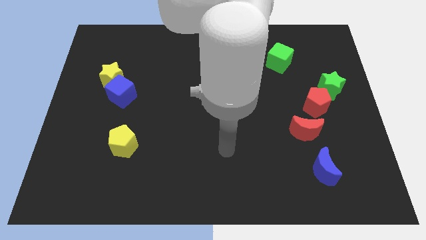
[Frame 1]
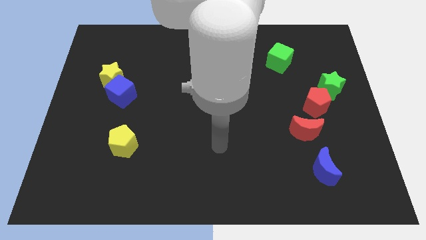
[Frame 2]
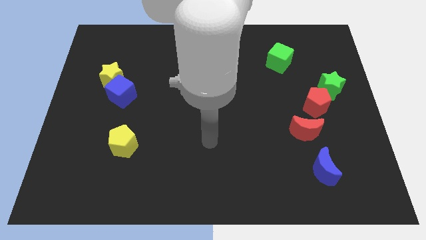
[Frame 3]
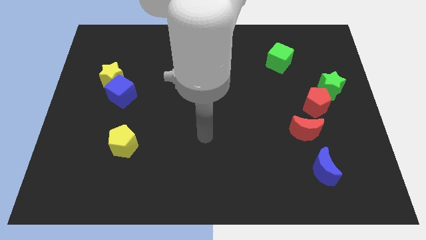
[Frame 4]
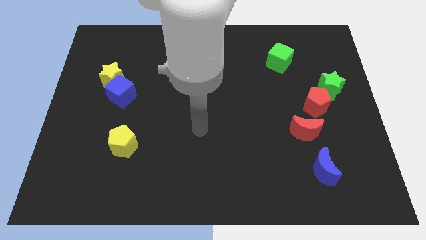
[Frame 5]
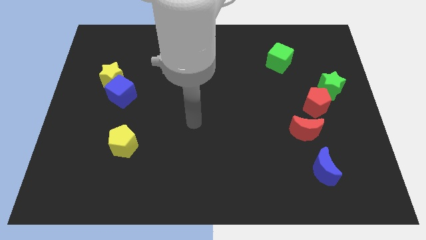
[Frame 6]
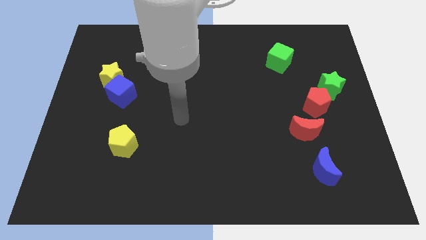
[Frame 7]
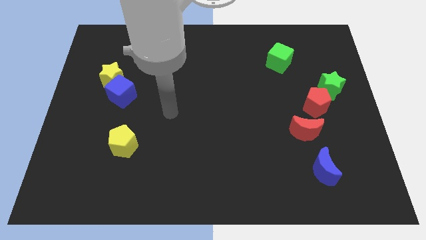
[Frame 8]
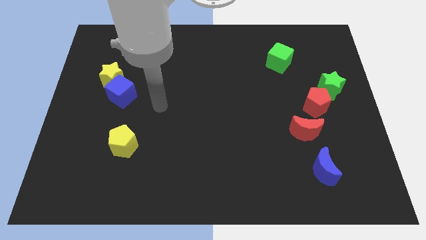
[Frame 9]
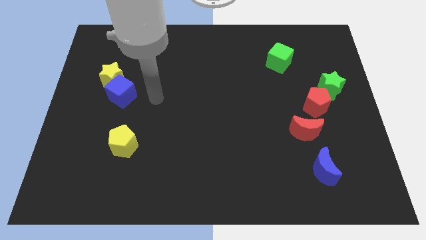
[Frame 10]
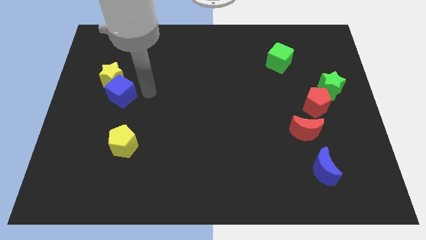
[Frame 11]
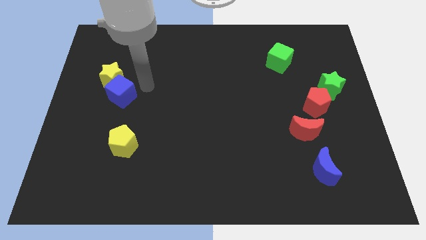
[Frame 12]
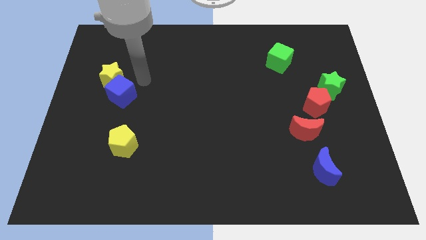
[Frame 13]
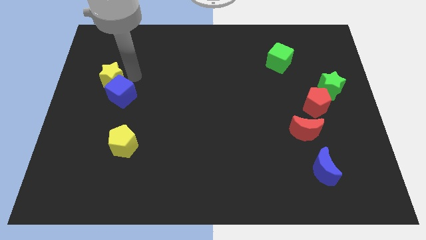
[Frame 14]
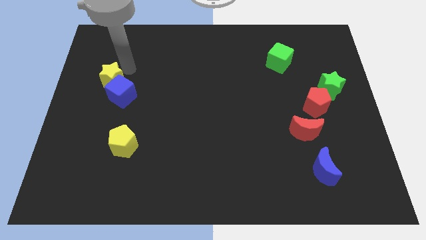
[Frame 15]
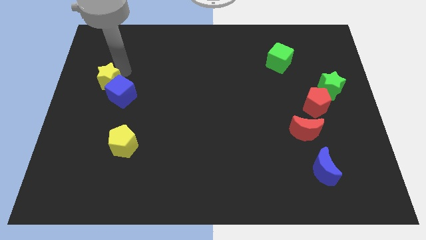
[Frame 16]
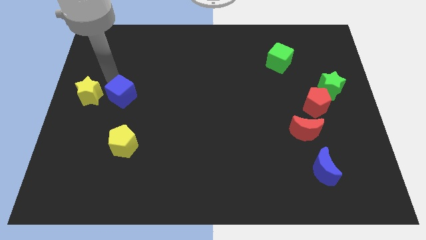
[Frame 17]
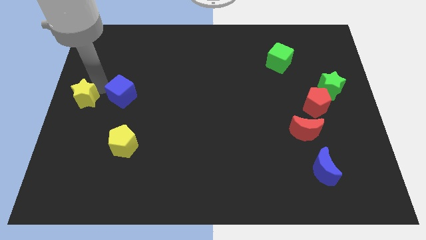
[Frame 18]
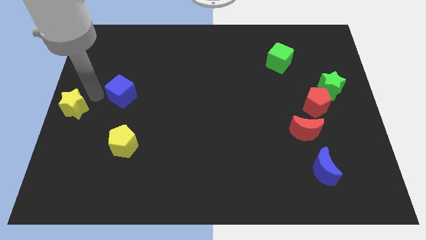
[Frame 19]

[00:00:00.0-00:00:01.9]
pull the blue cube apart from the yellow star

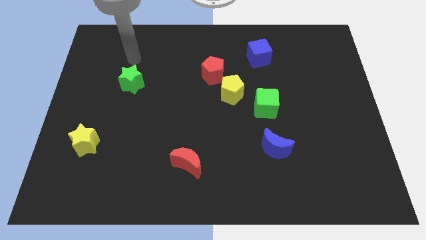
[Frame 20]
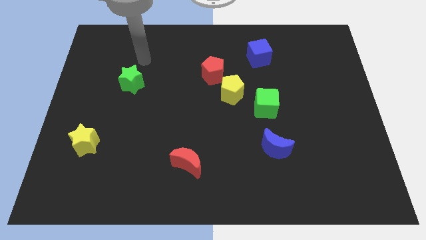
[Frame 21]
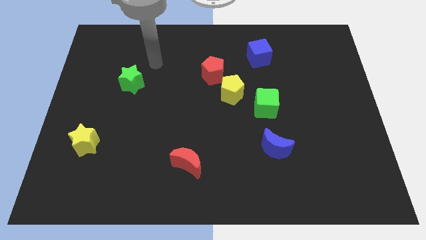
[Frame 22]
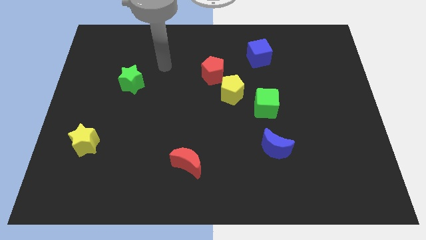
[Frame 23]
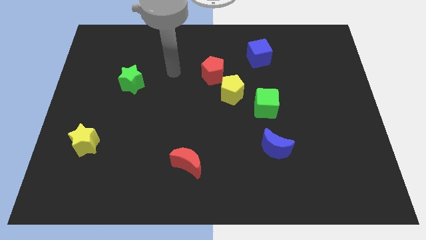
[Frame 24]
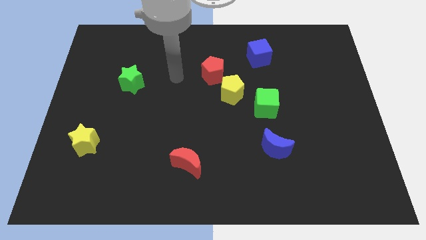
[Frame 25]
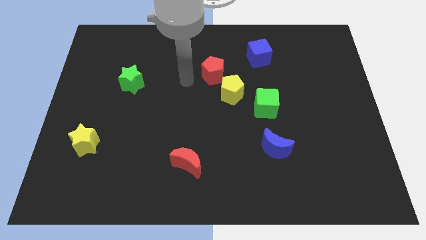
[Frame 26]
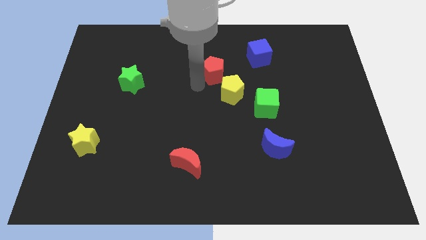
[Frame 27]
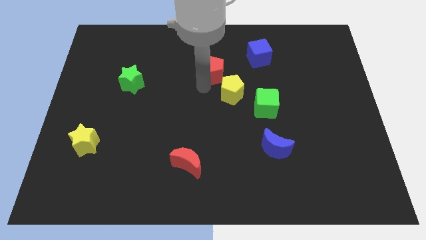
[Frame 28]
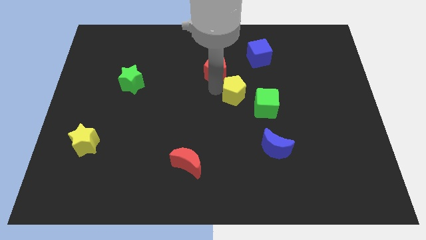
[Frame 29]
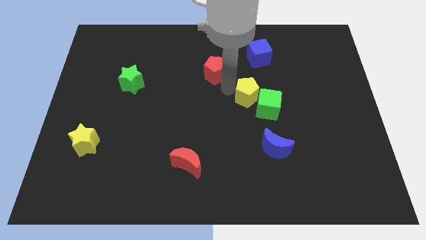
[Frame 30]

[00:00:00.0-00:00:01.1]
move the red pentagon away from the yellow pentagon

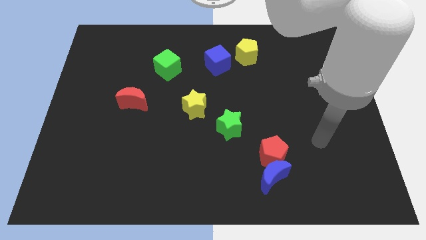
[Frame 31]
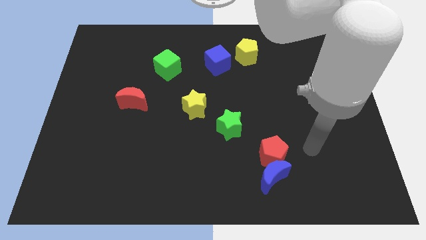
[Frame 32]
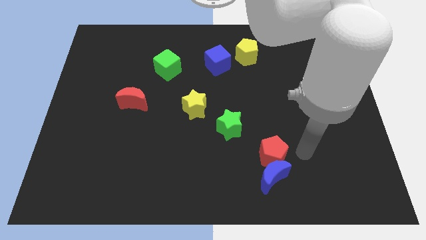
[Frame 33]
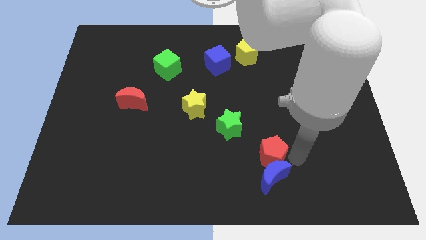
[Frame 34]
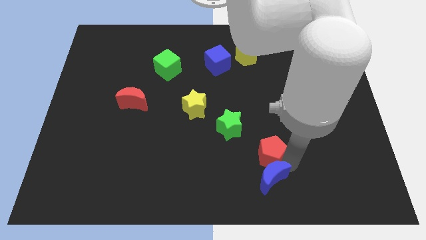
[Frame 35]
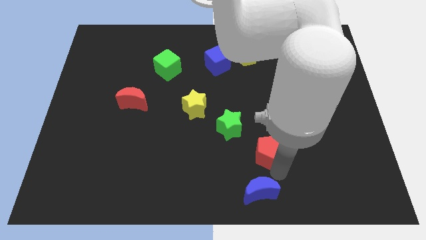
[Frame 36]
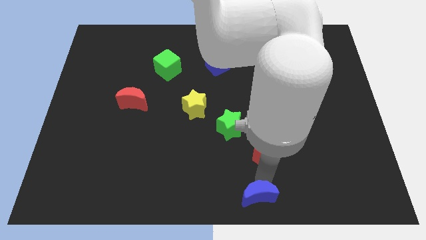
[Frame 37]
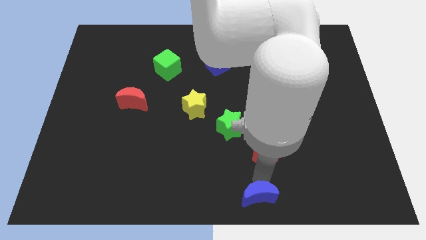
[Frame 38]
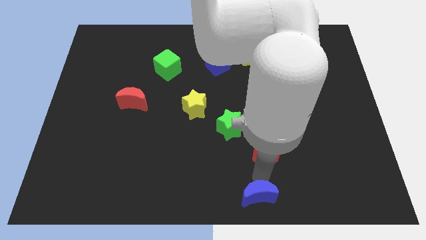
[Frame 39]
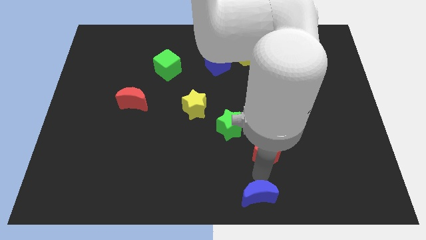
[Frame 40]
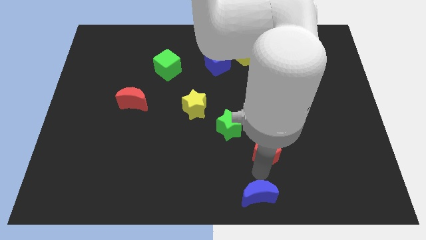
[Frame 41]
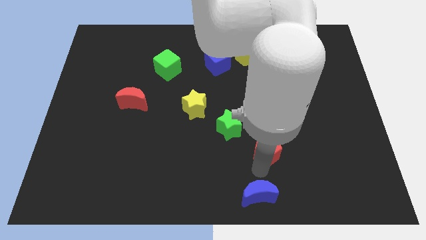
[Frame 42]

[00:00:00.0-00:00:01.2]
separate the red pentagon from the blue moon

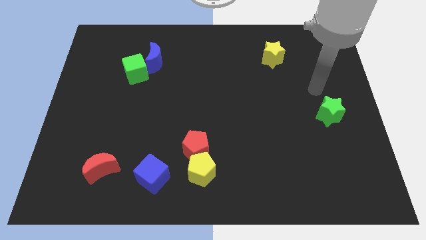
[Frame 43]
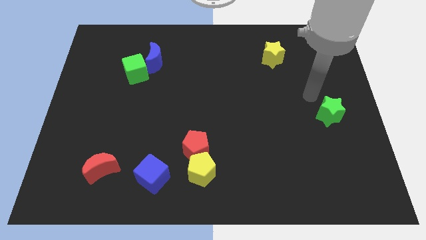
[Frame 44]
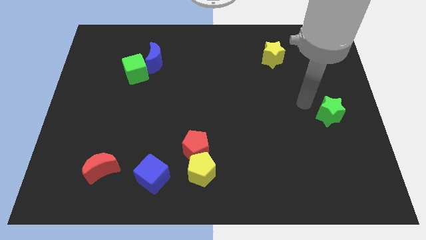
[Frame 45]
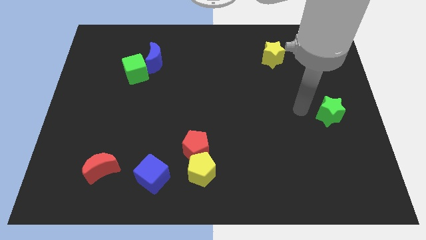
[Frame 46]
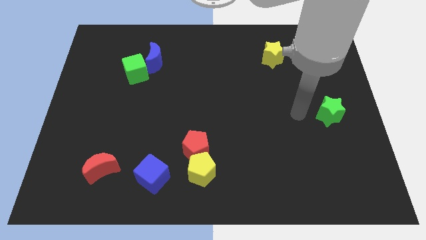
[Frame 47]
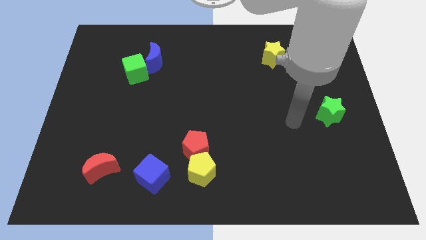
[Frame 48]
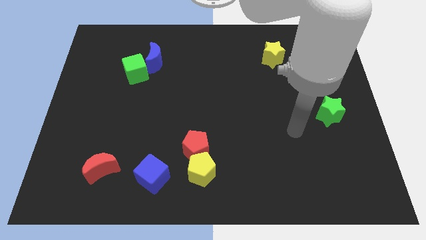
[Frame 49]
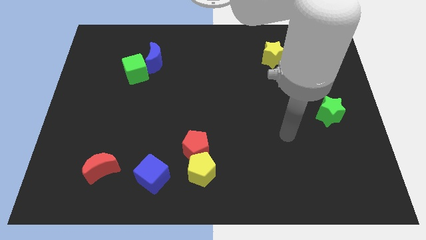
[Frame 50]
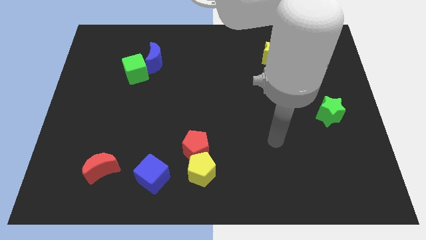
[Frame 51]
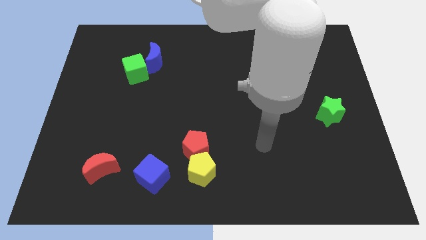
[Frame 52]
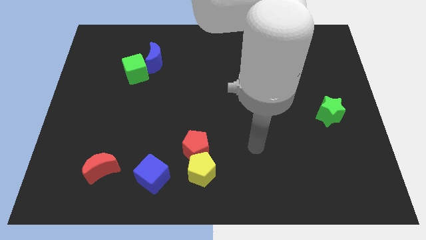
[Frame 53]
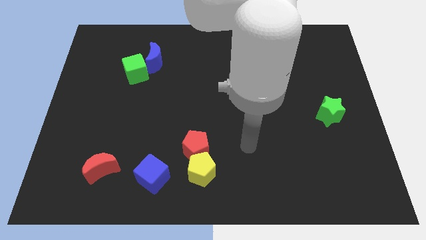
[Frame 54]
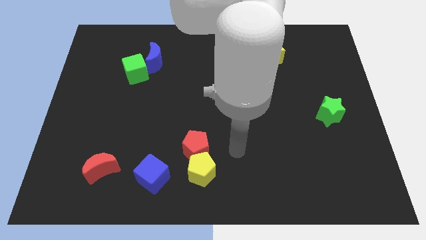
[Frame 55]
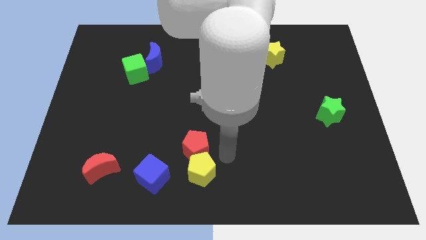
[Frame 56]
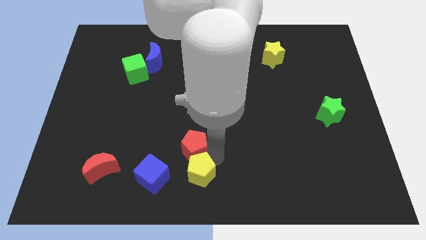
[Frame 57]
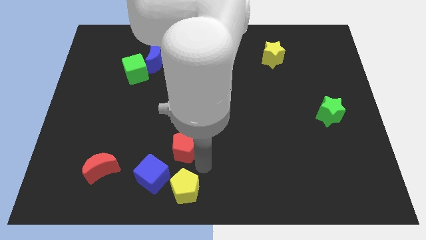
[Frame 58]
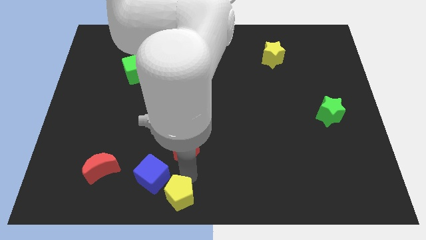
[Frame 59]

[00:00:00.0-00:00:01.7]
pull the red pentagon apart from the yellow pentagon

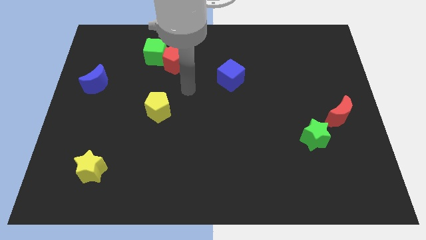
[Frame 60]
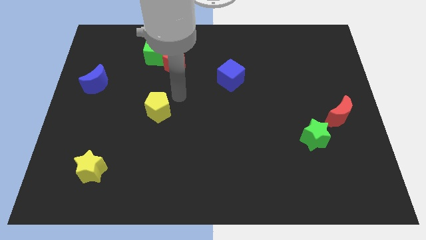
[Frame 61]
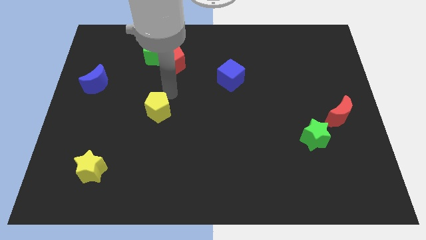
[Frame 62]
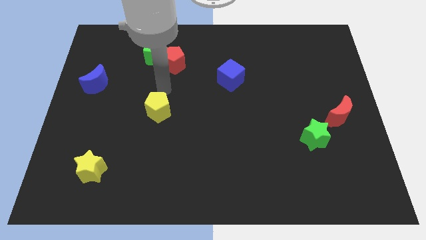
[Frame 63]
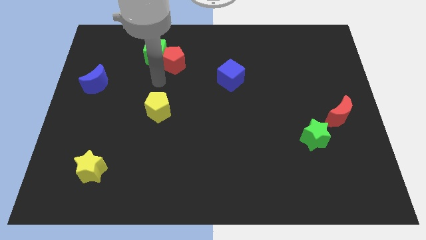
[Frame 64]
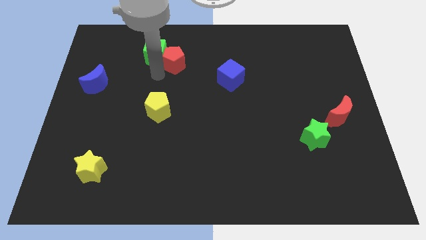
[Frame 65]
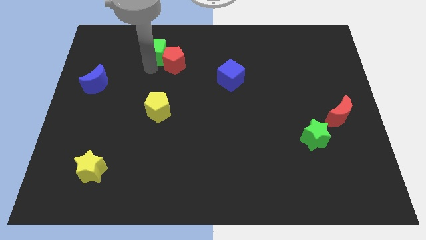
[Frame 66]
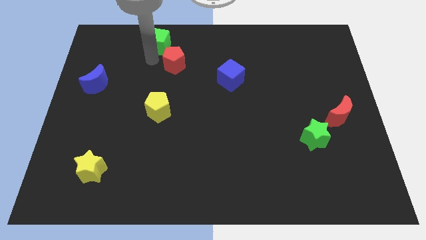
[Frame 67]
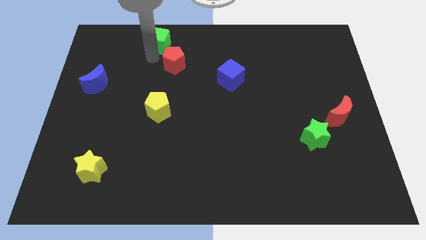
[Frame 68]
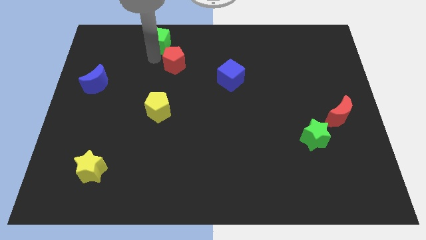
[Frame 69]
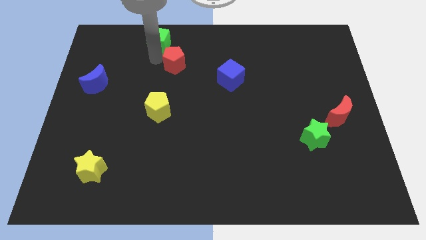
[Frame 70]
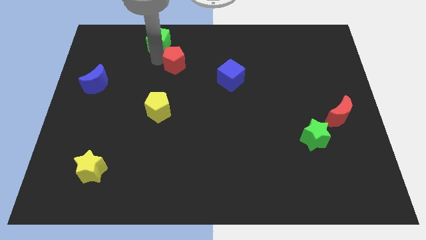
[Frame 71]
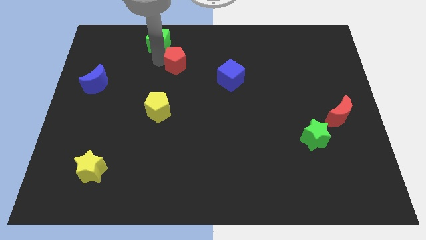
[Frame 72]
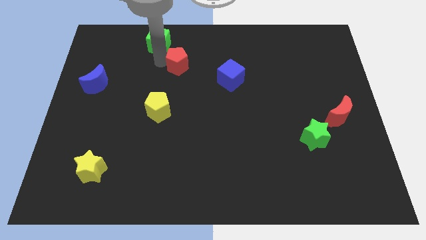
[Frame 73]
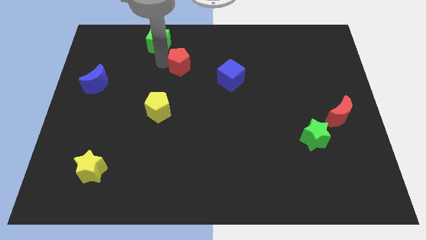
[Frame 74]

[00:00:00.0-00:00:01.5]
pull the red pentagon apart from the green cube

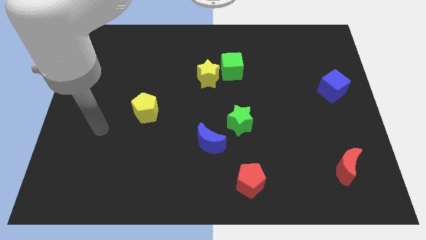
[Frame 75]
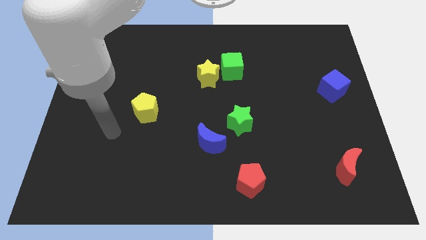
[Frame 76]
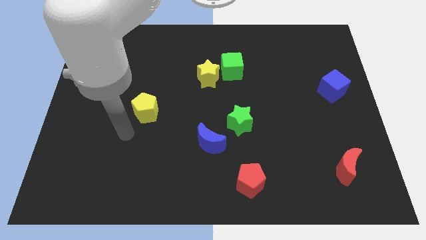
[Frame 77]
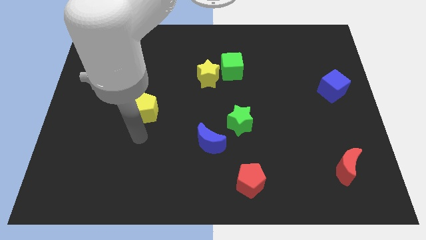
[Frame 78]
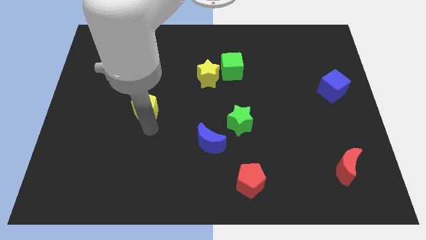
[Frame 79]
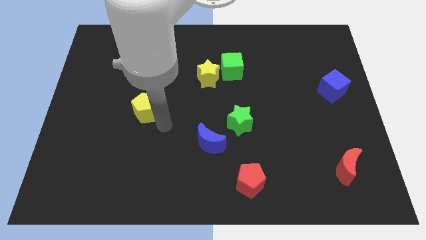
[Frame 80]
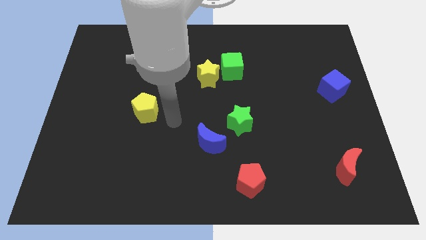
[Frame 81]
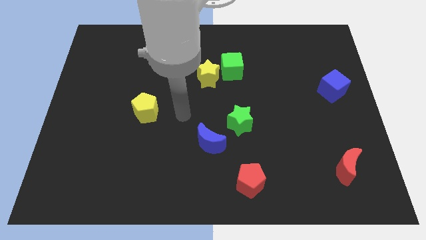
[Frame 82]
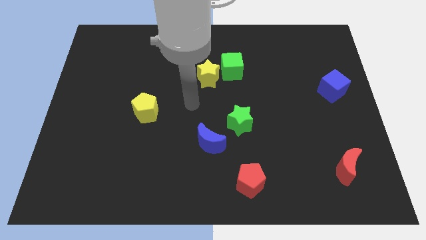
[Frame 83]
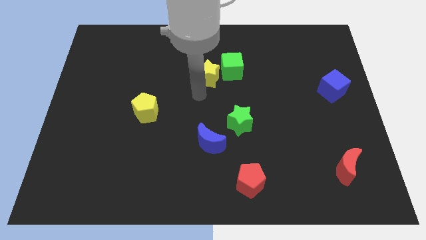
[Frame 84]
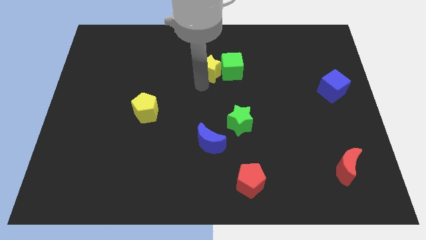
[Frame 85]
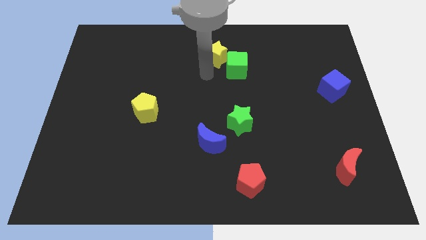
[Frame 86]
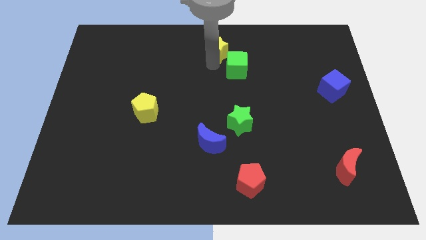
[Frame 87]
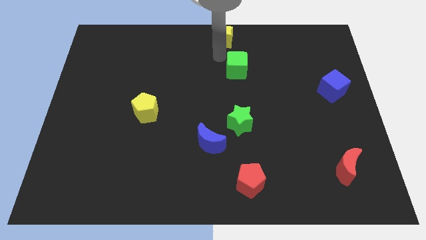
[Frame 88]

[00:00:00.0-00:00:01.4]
move the green cube away from the yellow star

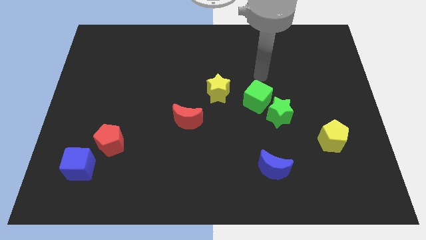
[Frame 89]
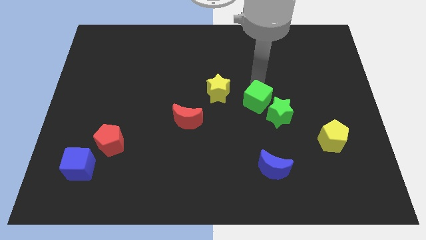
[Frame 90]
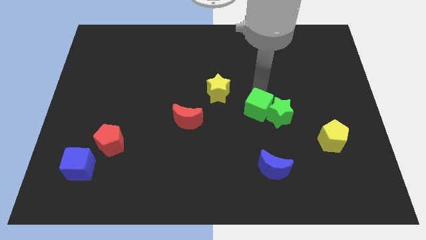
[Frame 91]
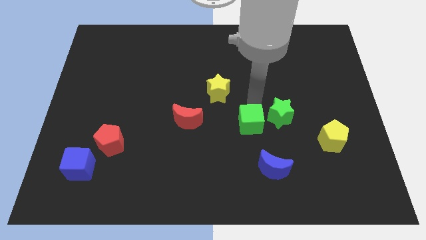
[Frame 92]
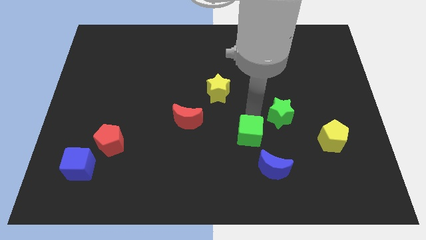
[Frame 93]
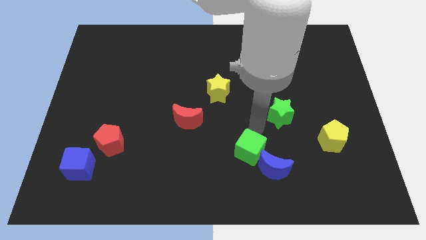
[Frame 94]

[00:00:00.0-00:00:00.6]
move the green star away from the green cube

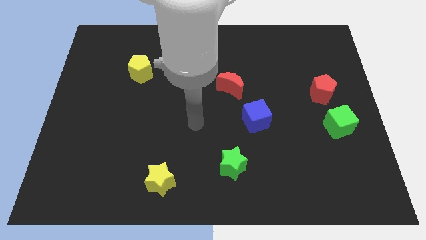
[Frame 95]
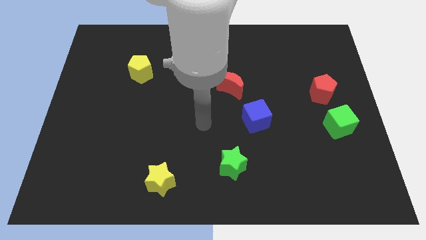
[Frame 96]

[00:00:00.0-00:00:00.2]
separate the red pentagon from the green cube
